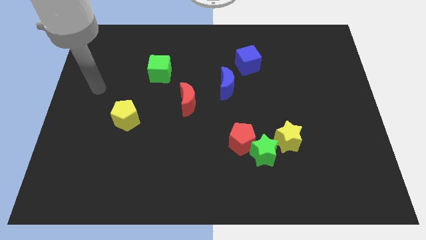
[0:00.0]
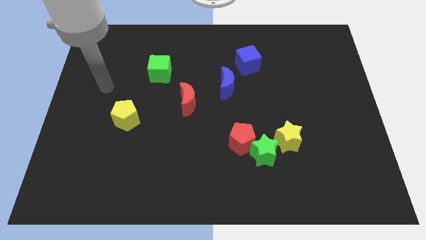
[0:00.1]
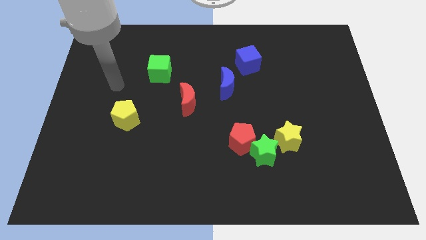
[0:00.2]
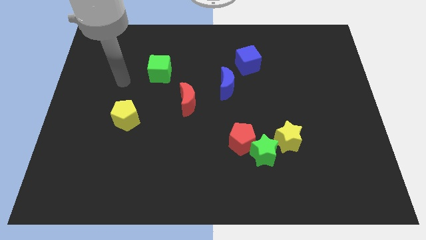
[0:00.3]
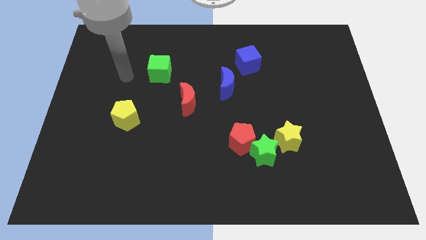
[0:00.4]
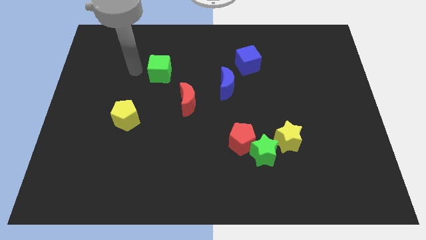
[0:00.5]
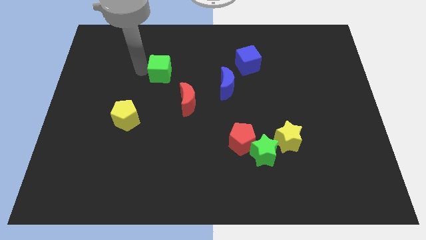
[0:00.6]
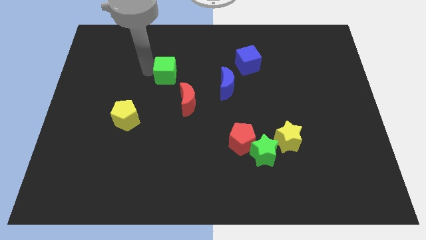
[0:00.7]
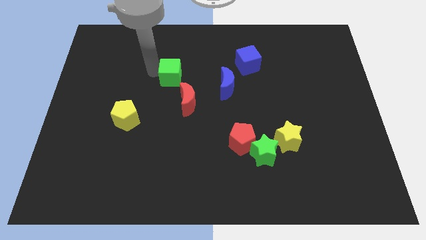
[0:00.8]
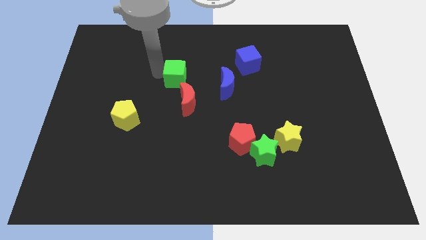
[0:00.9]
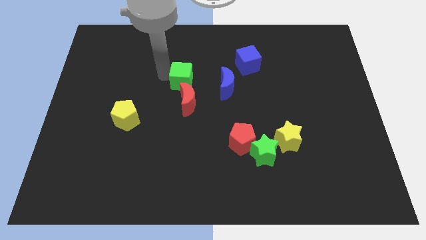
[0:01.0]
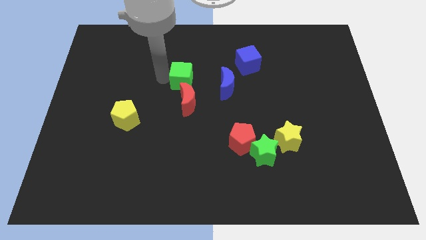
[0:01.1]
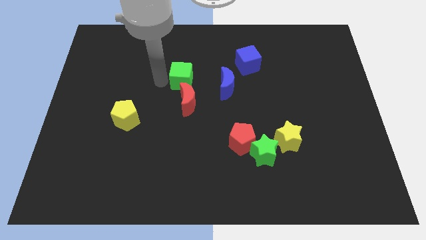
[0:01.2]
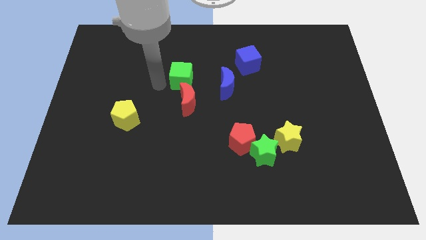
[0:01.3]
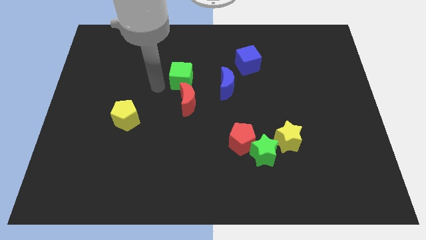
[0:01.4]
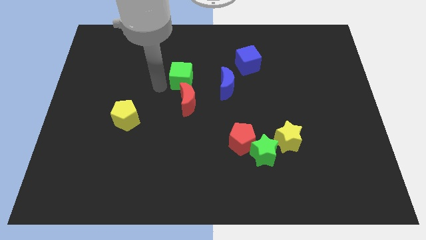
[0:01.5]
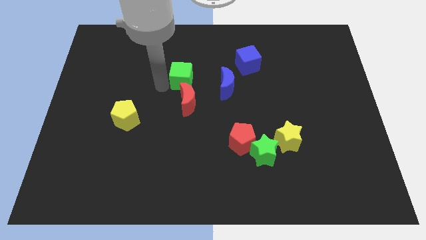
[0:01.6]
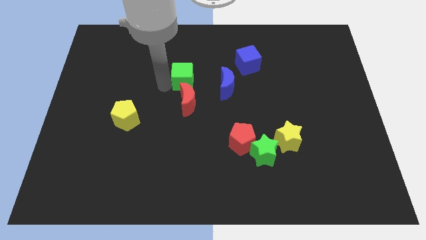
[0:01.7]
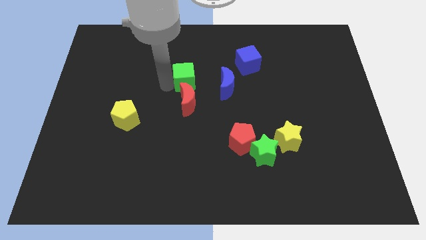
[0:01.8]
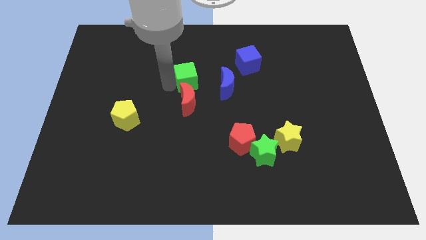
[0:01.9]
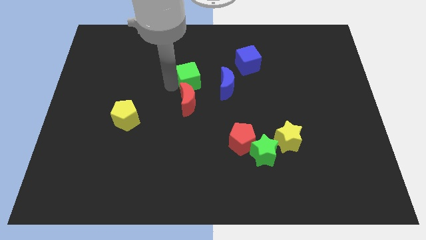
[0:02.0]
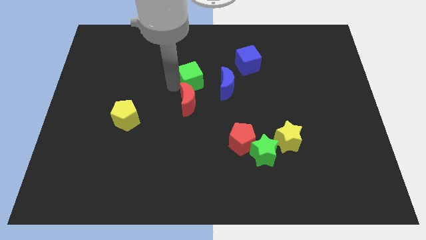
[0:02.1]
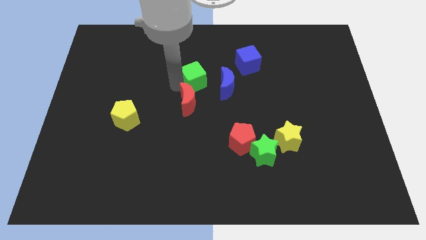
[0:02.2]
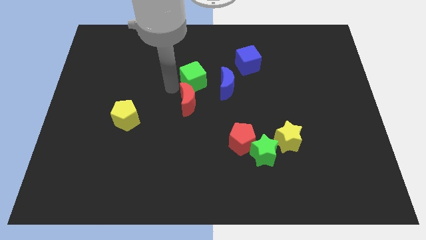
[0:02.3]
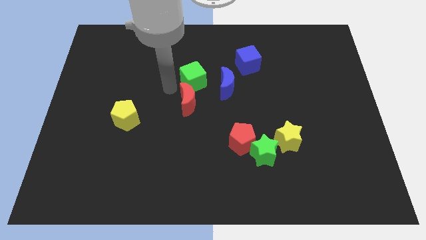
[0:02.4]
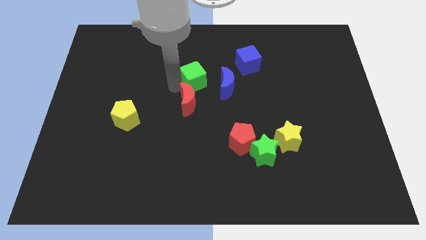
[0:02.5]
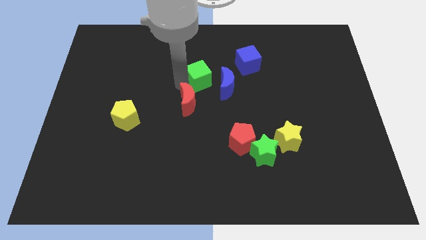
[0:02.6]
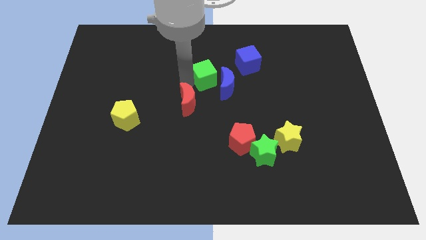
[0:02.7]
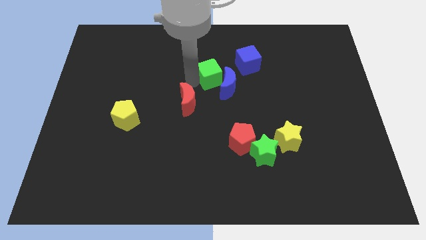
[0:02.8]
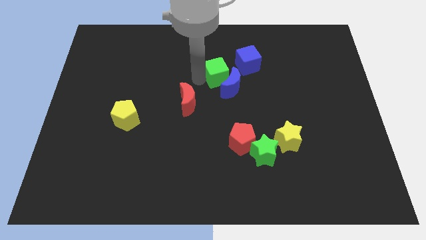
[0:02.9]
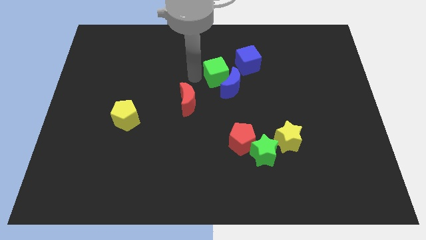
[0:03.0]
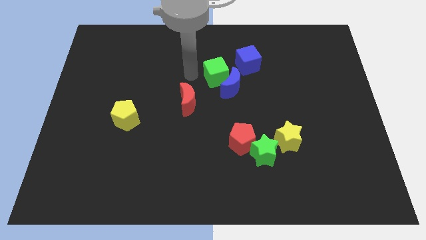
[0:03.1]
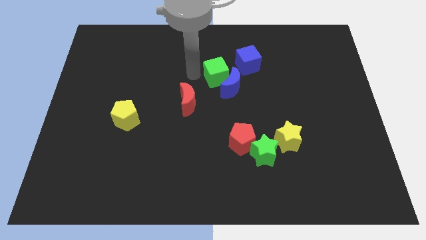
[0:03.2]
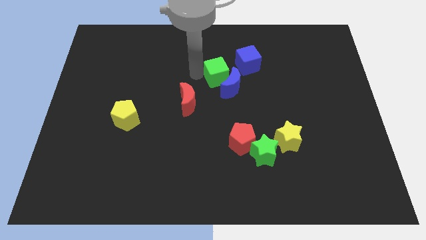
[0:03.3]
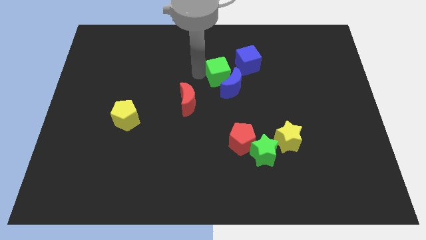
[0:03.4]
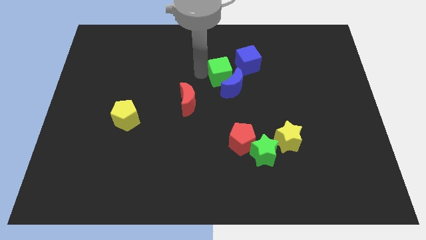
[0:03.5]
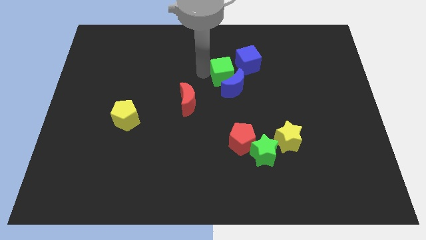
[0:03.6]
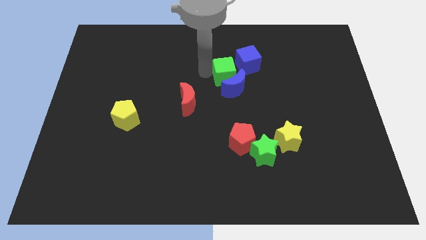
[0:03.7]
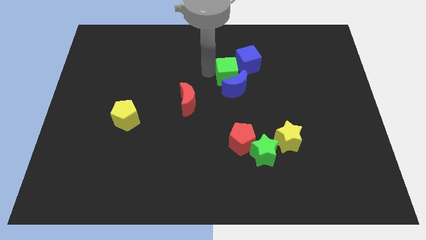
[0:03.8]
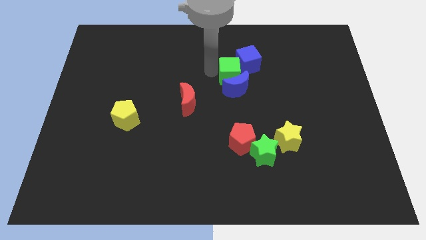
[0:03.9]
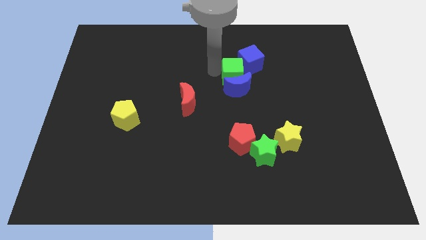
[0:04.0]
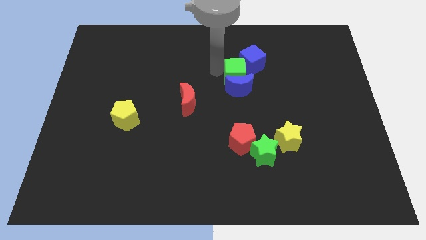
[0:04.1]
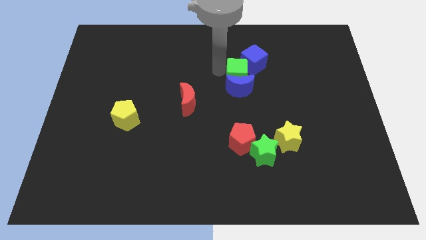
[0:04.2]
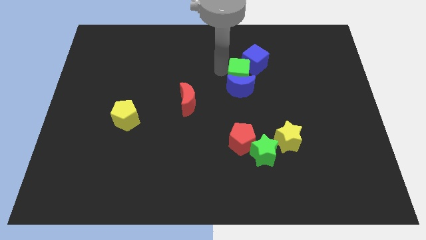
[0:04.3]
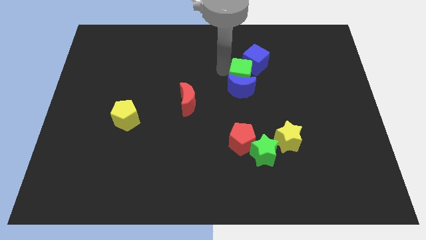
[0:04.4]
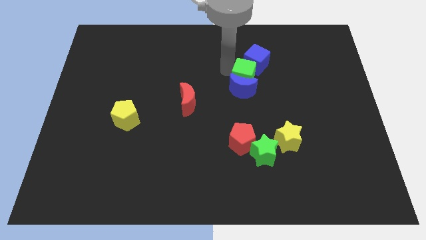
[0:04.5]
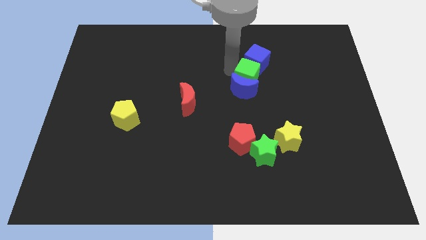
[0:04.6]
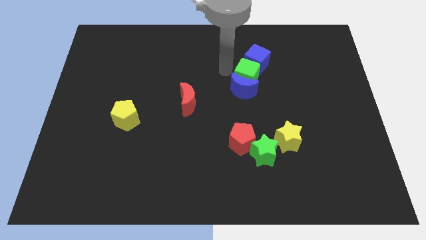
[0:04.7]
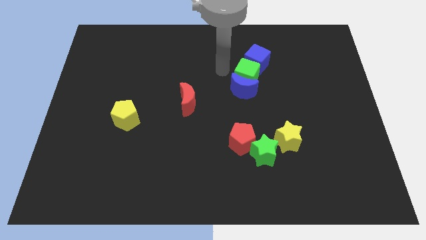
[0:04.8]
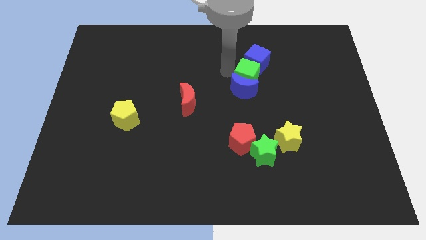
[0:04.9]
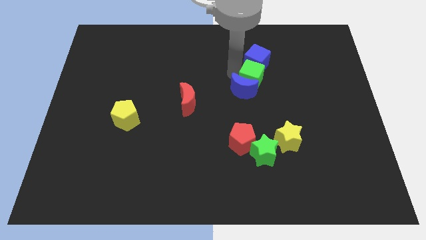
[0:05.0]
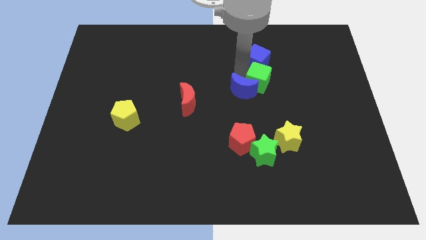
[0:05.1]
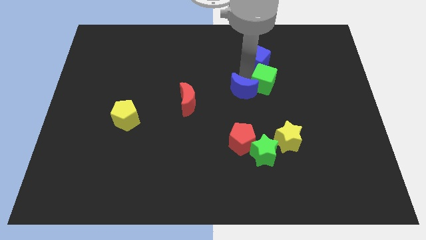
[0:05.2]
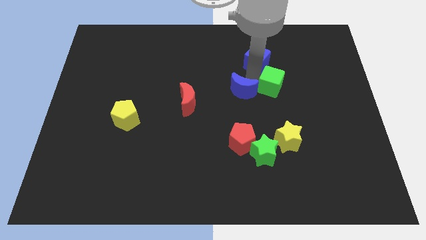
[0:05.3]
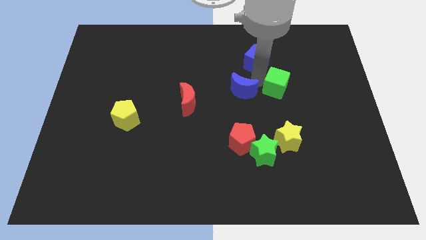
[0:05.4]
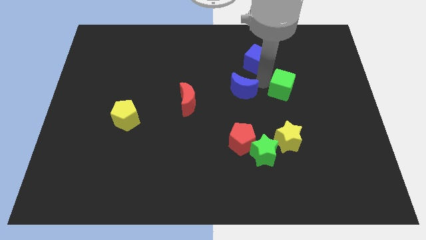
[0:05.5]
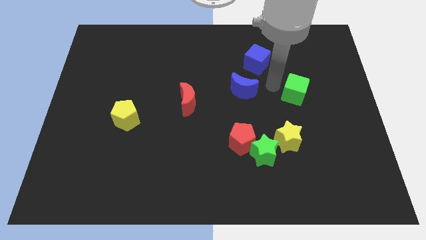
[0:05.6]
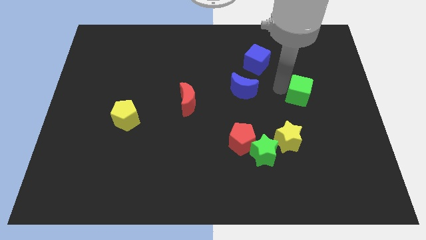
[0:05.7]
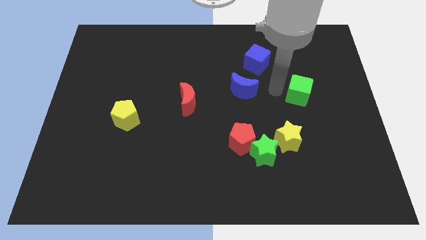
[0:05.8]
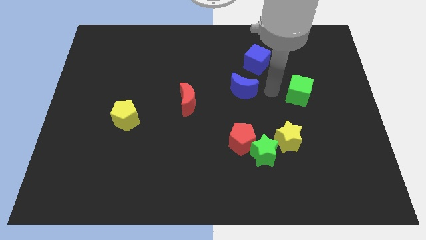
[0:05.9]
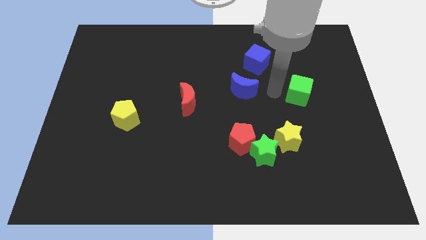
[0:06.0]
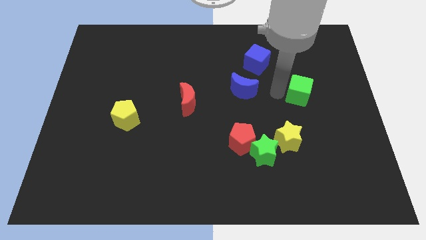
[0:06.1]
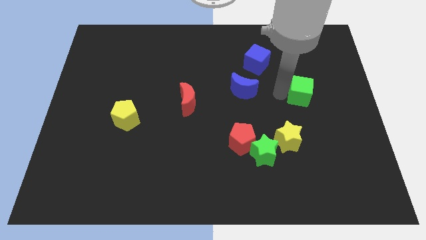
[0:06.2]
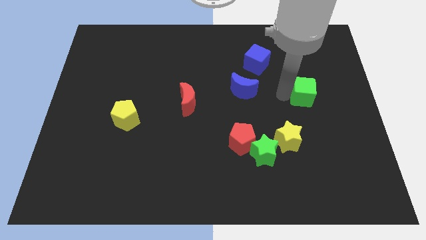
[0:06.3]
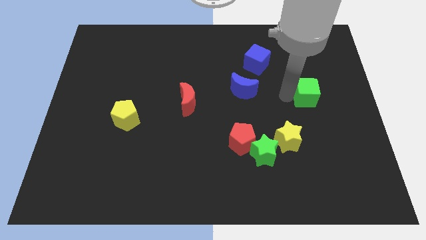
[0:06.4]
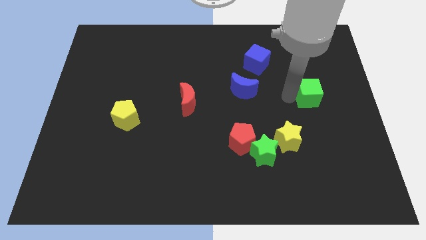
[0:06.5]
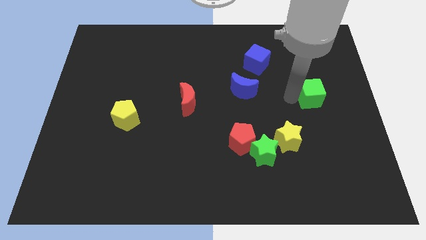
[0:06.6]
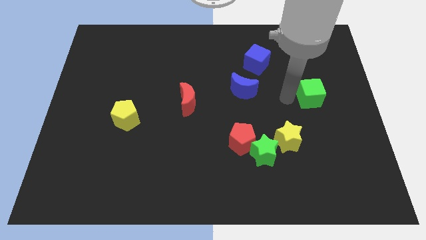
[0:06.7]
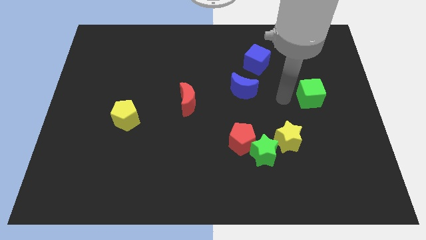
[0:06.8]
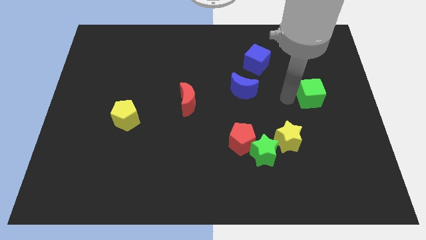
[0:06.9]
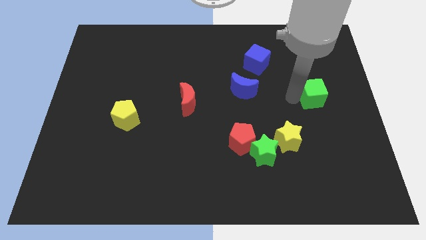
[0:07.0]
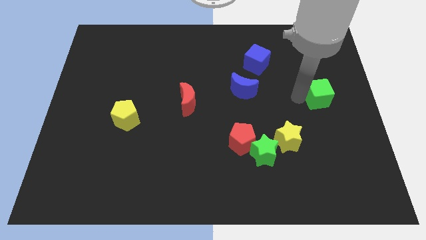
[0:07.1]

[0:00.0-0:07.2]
push the green cube to the center right
